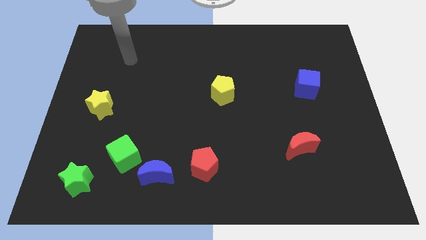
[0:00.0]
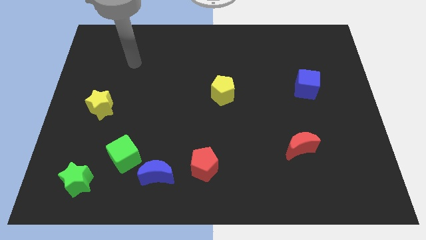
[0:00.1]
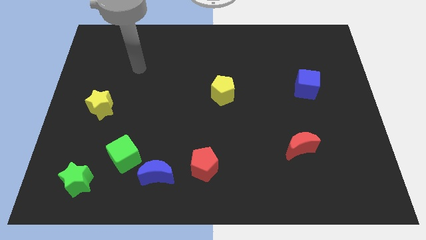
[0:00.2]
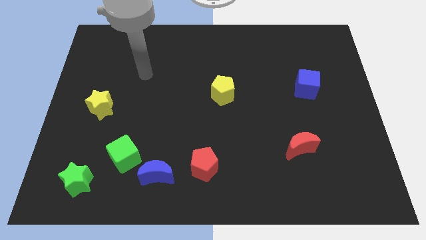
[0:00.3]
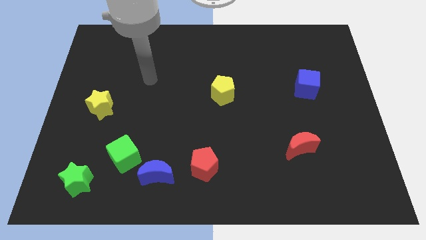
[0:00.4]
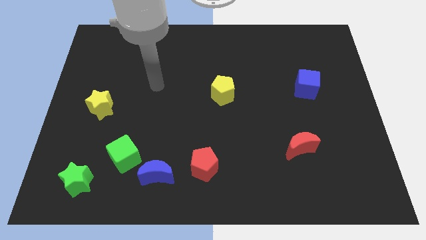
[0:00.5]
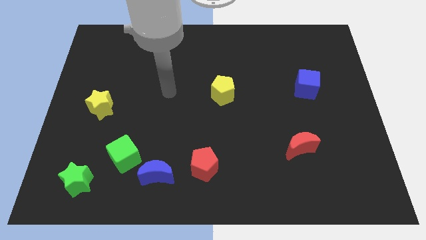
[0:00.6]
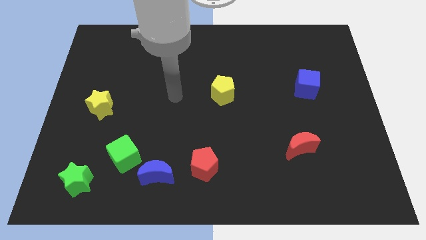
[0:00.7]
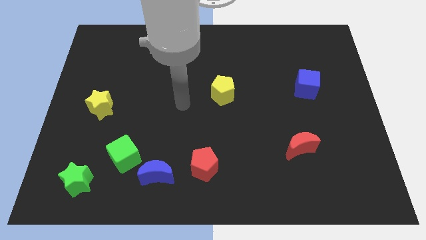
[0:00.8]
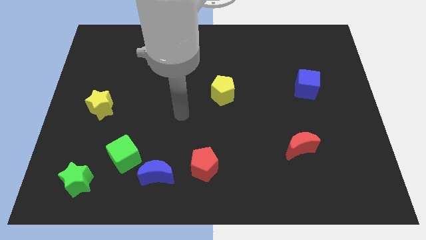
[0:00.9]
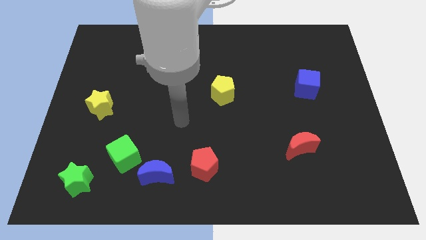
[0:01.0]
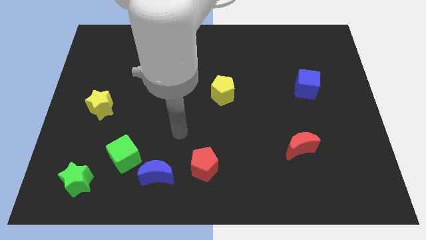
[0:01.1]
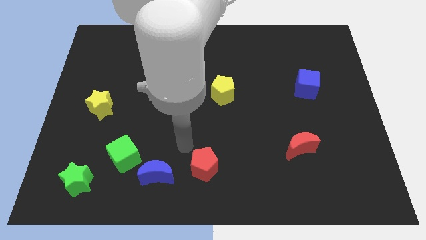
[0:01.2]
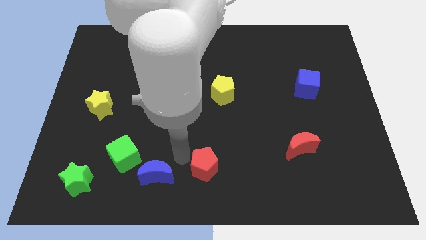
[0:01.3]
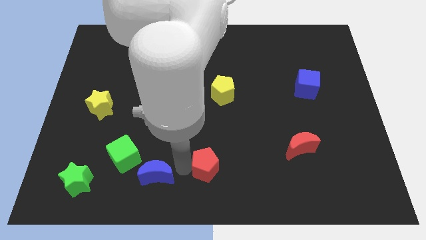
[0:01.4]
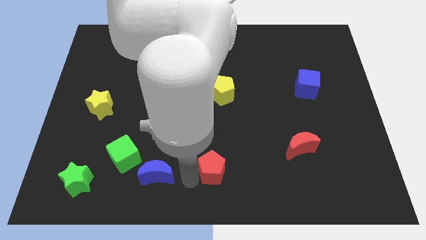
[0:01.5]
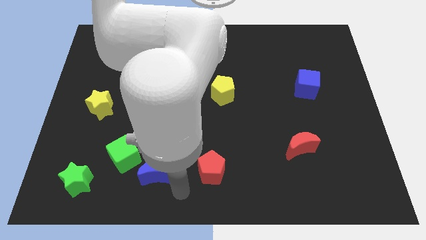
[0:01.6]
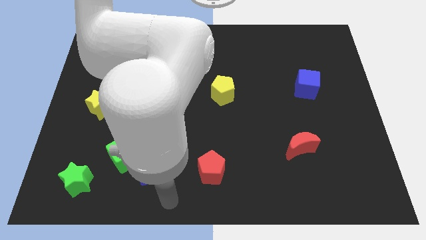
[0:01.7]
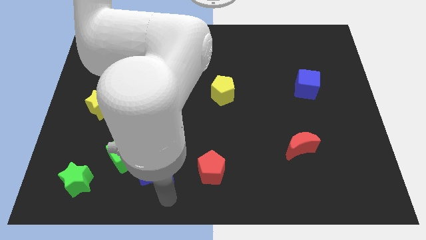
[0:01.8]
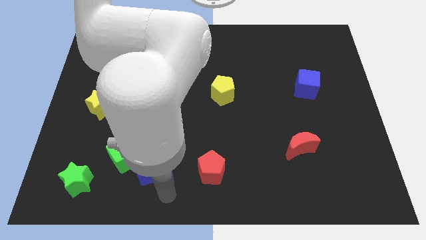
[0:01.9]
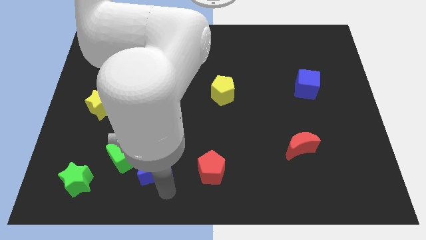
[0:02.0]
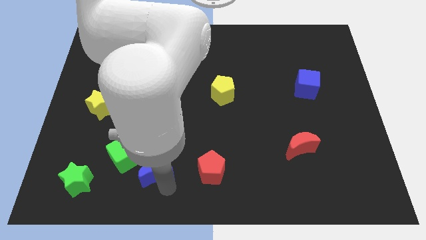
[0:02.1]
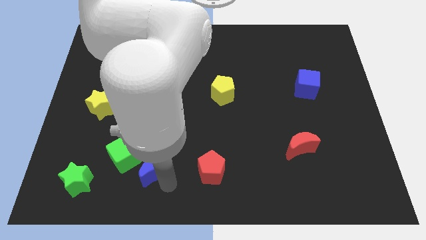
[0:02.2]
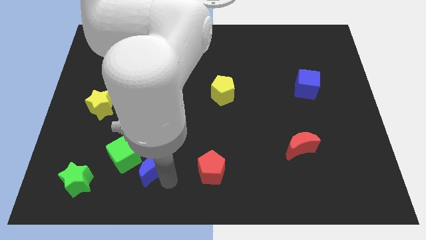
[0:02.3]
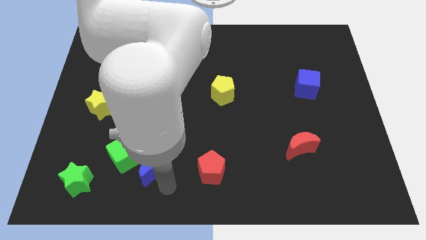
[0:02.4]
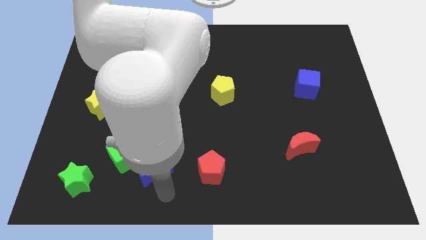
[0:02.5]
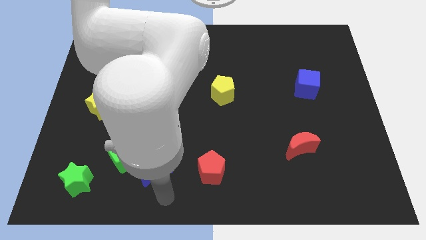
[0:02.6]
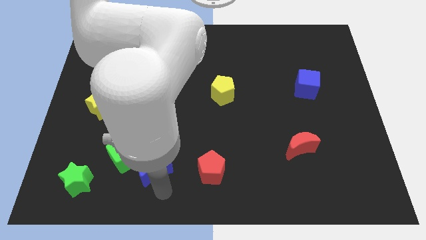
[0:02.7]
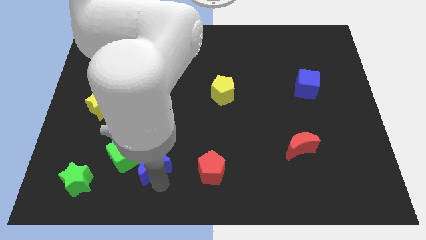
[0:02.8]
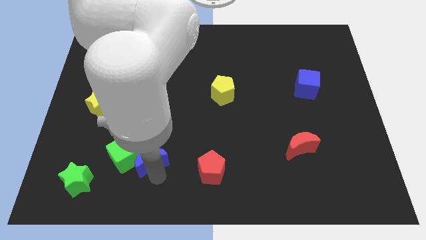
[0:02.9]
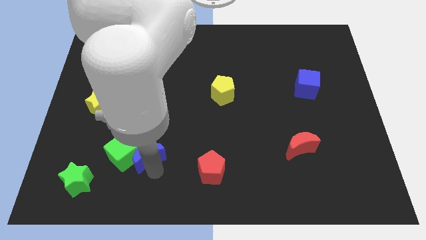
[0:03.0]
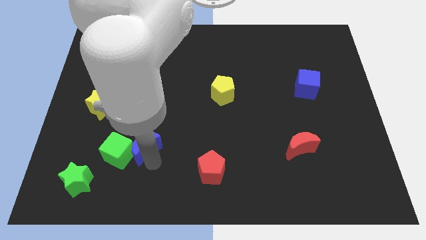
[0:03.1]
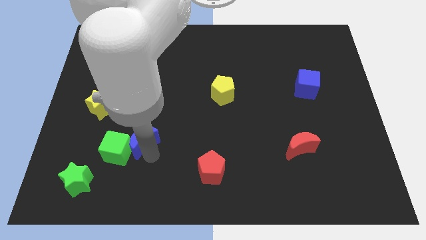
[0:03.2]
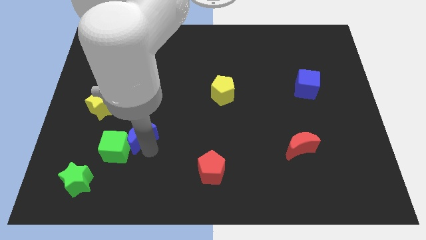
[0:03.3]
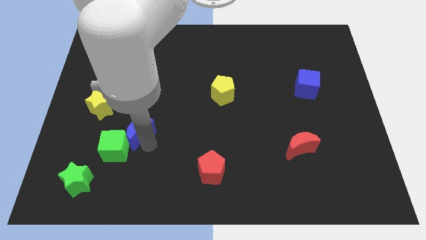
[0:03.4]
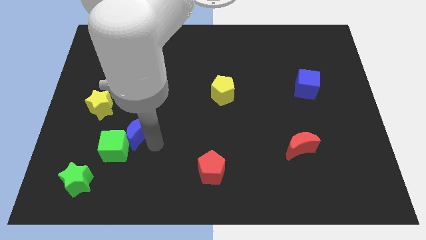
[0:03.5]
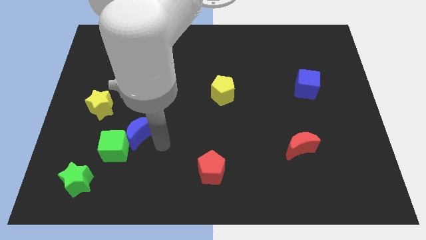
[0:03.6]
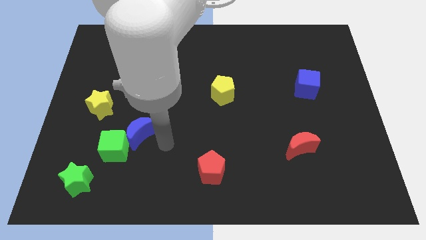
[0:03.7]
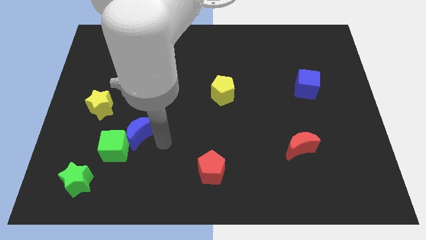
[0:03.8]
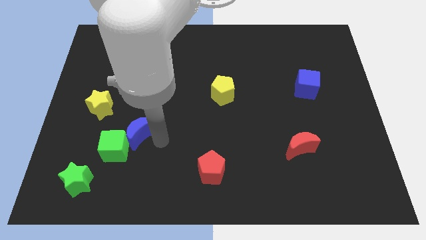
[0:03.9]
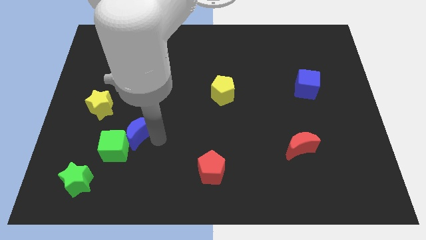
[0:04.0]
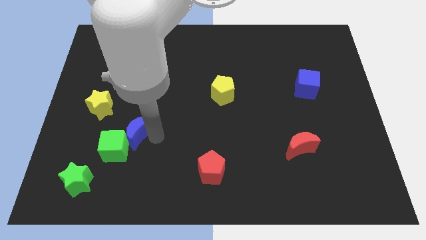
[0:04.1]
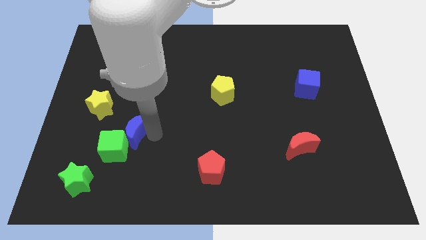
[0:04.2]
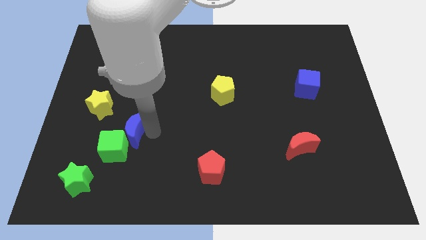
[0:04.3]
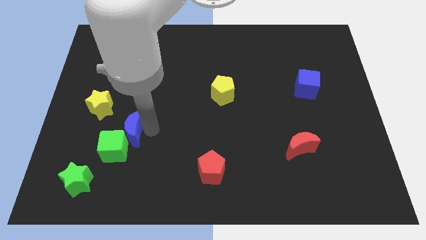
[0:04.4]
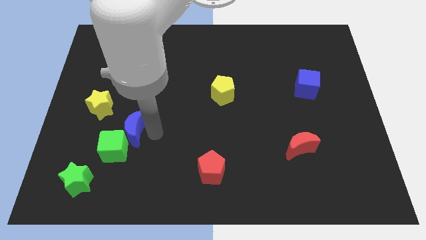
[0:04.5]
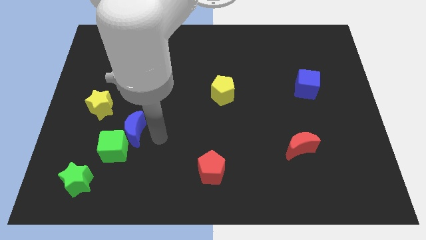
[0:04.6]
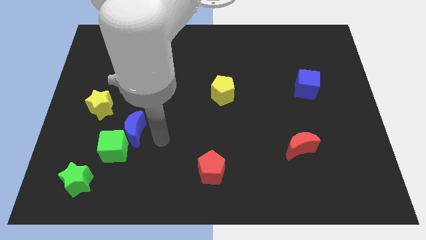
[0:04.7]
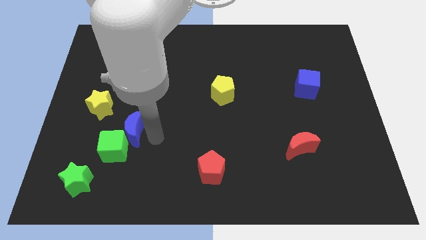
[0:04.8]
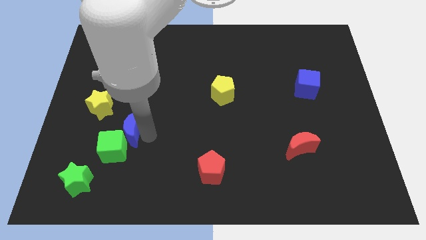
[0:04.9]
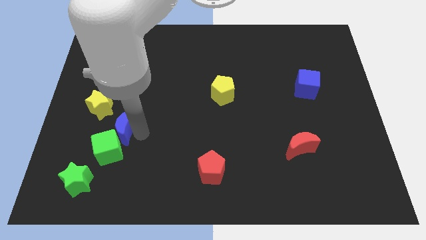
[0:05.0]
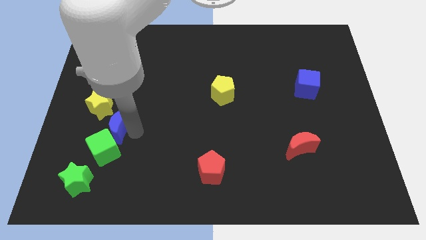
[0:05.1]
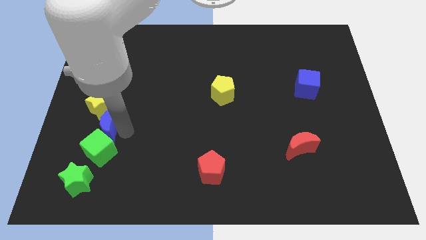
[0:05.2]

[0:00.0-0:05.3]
move the blue moon towards the yellow star

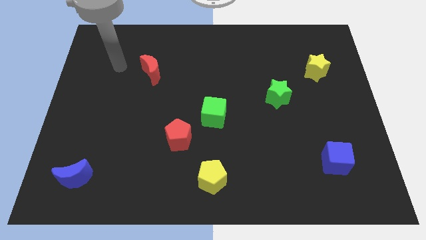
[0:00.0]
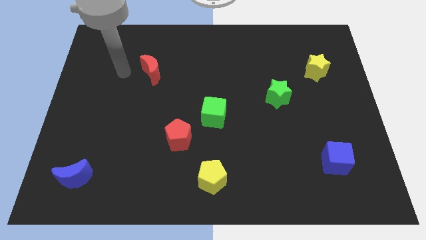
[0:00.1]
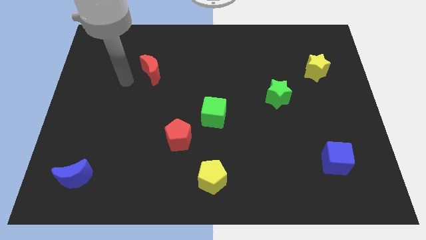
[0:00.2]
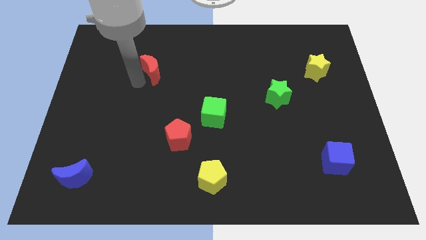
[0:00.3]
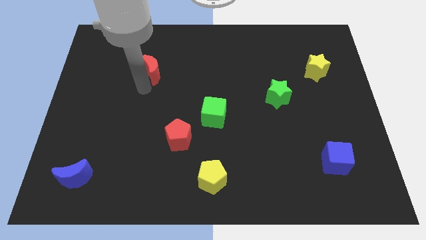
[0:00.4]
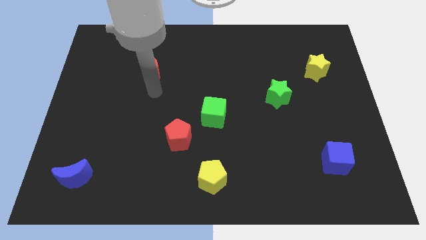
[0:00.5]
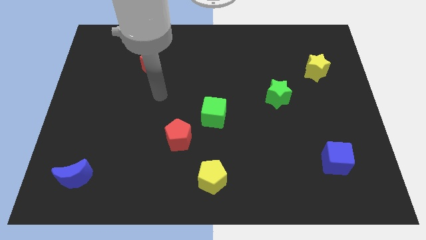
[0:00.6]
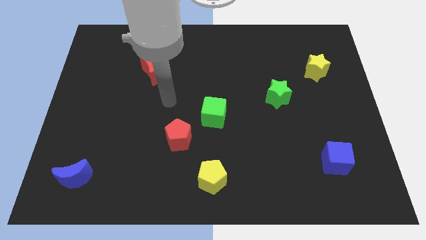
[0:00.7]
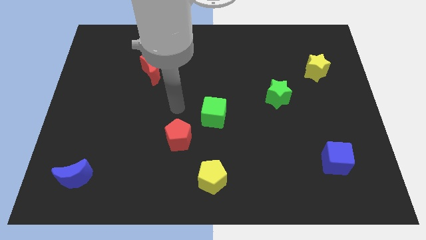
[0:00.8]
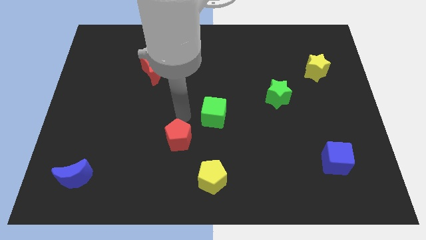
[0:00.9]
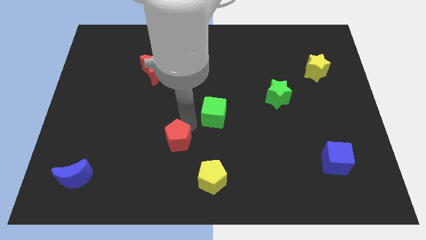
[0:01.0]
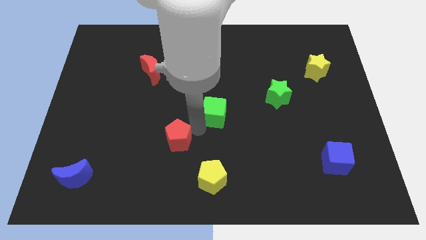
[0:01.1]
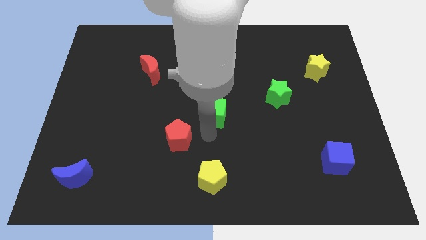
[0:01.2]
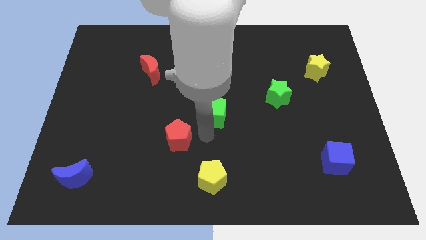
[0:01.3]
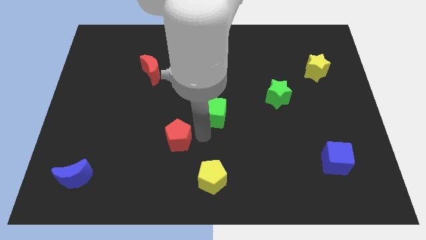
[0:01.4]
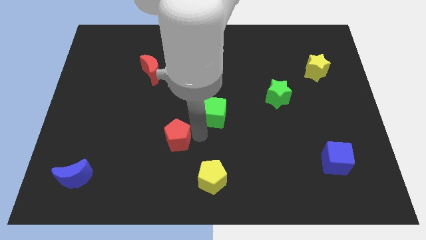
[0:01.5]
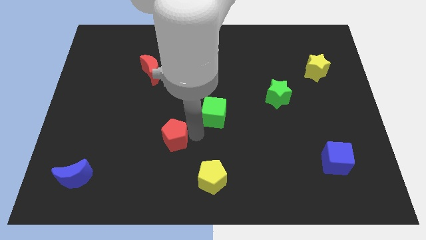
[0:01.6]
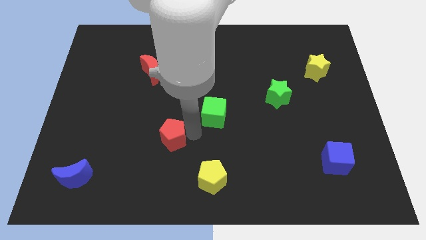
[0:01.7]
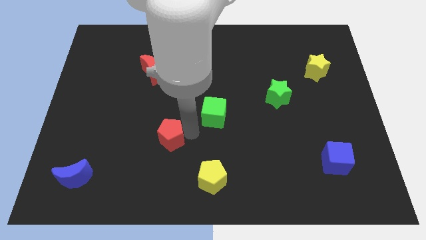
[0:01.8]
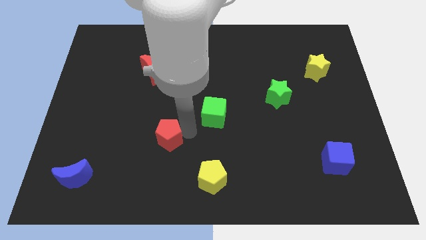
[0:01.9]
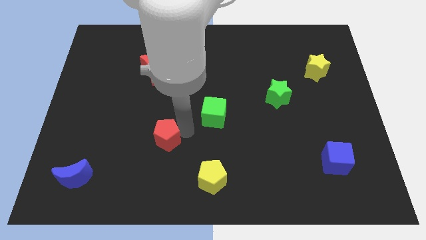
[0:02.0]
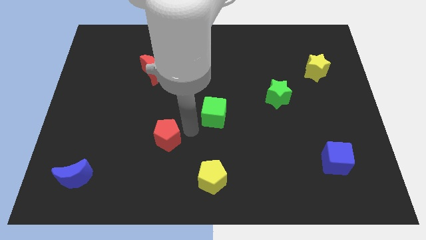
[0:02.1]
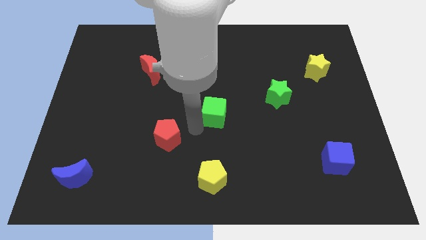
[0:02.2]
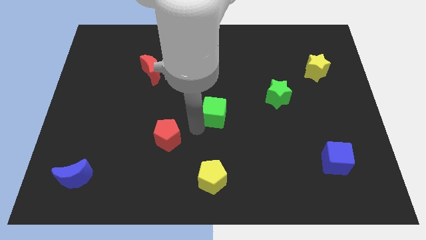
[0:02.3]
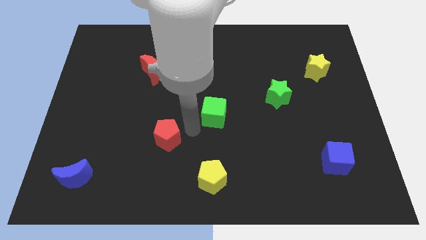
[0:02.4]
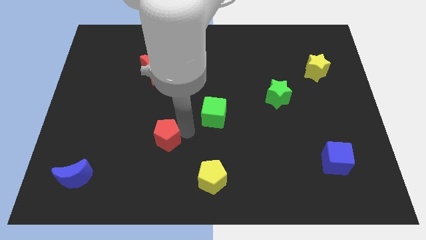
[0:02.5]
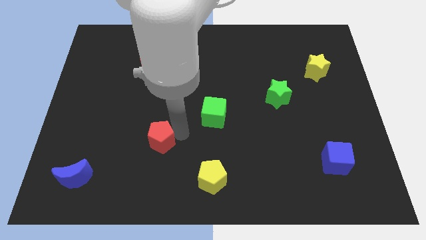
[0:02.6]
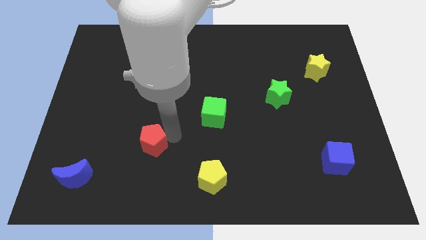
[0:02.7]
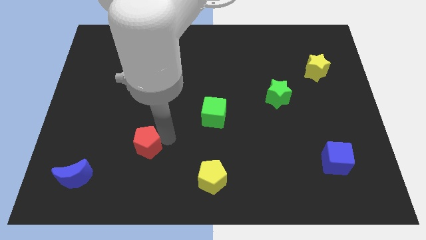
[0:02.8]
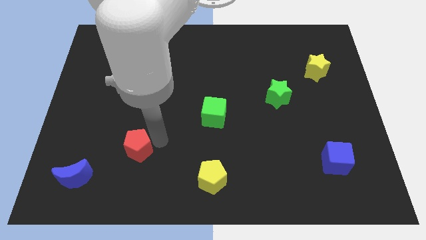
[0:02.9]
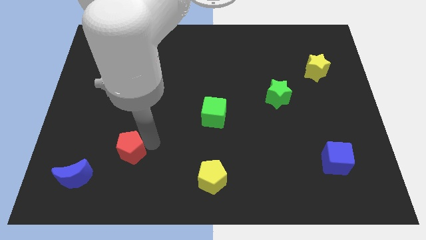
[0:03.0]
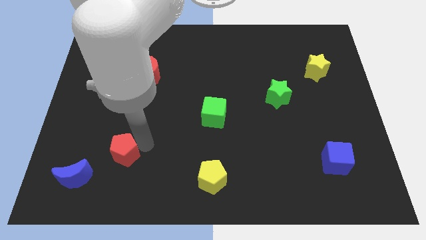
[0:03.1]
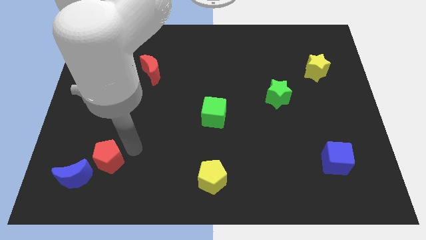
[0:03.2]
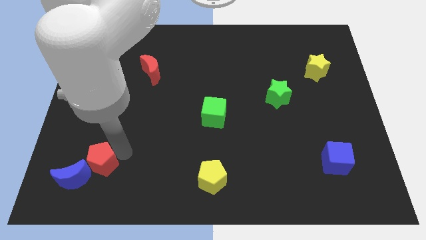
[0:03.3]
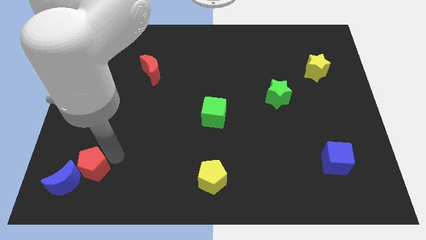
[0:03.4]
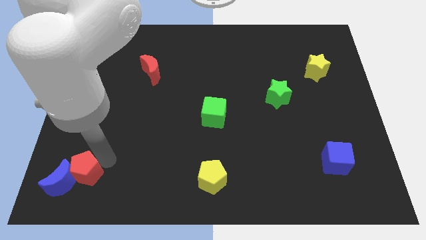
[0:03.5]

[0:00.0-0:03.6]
put the red pentagon next to the blue moon
